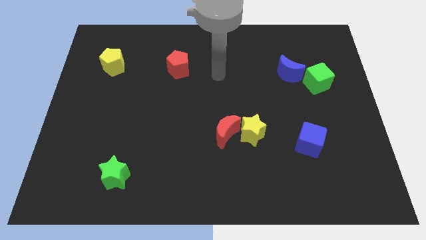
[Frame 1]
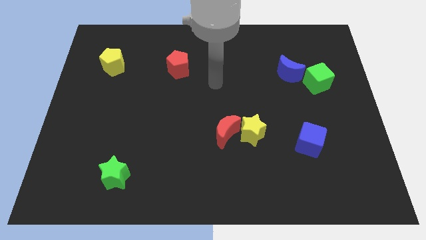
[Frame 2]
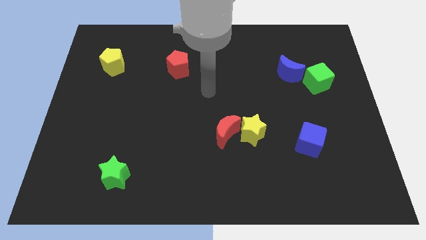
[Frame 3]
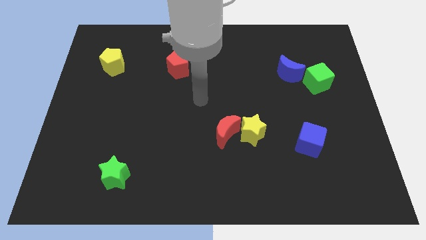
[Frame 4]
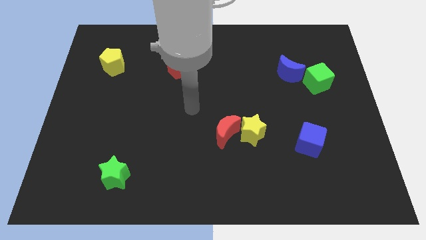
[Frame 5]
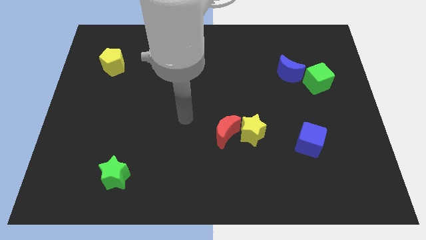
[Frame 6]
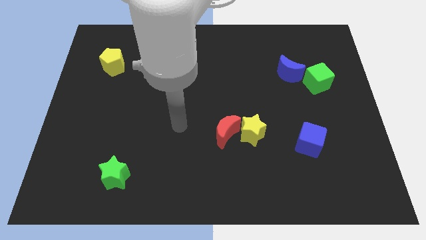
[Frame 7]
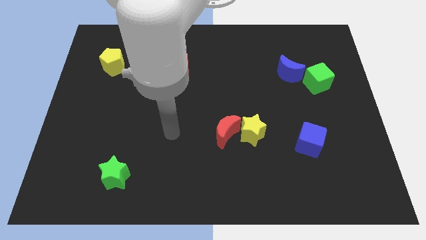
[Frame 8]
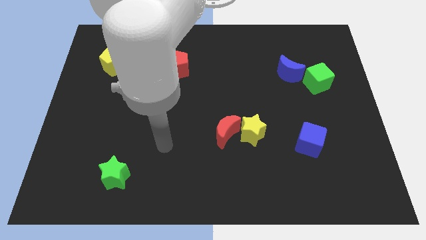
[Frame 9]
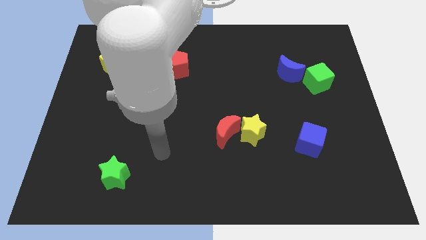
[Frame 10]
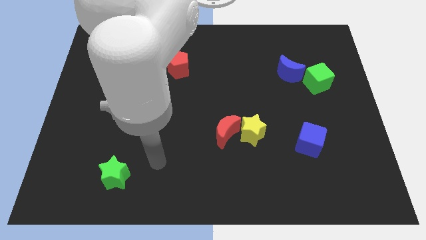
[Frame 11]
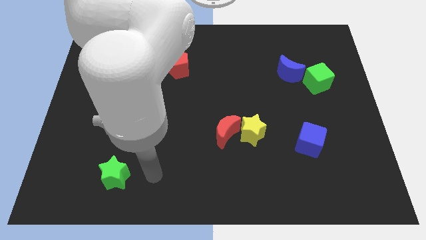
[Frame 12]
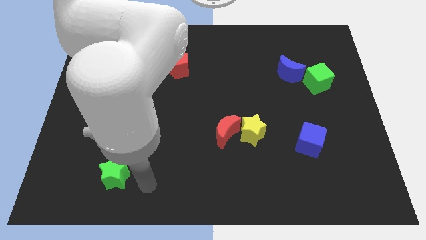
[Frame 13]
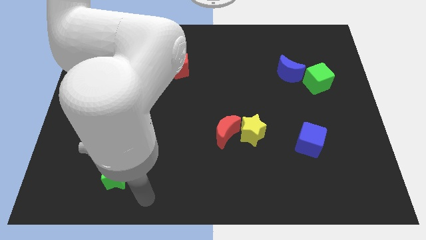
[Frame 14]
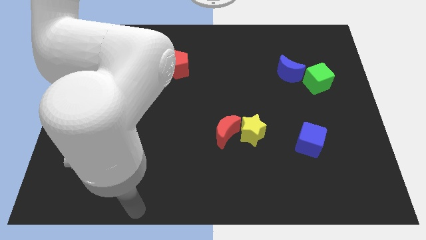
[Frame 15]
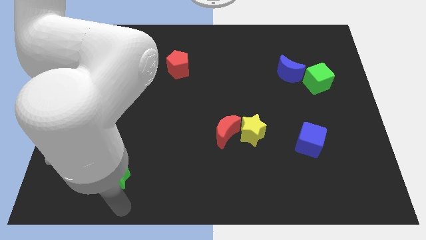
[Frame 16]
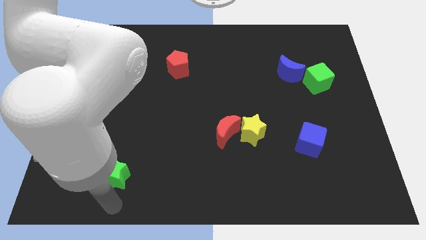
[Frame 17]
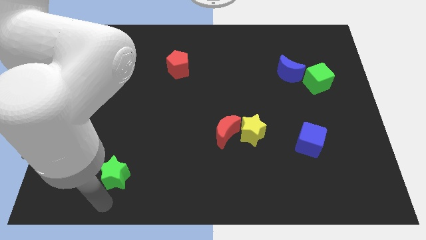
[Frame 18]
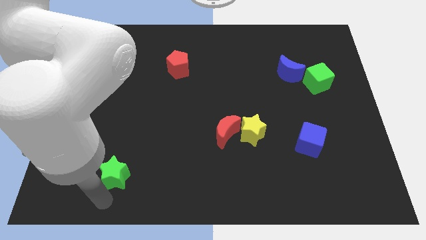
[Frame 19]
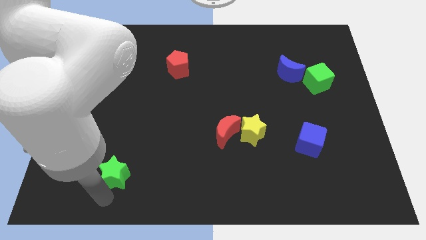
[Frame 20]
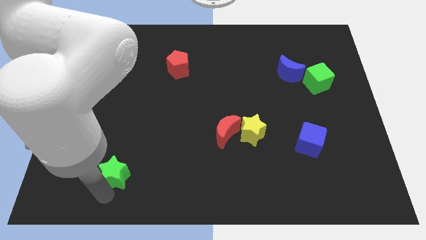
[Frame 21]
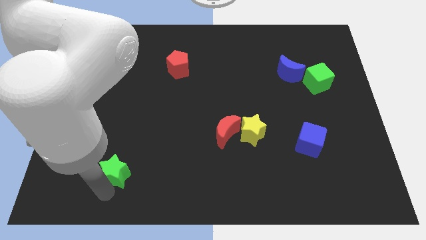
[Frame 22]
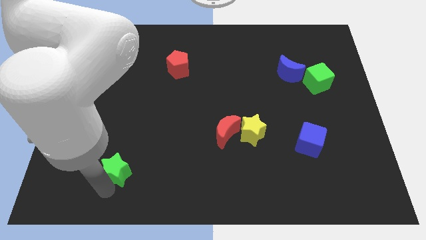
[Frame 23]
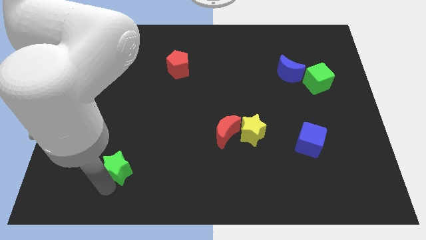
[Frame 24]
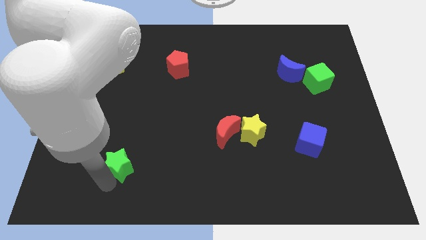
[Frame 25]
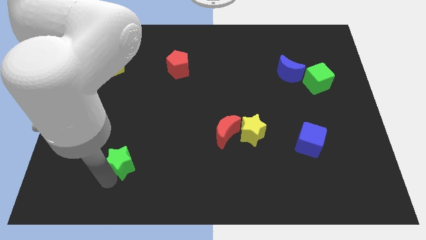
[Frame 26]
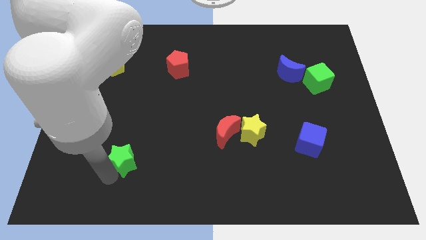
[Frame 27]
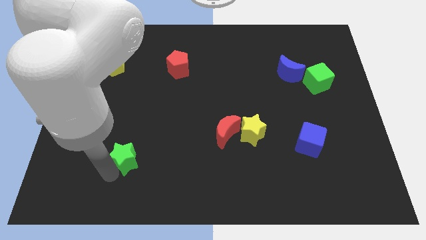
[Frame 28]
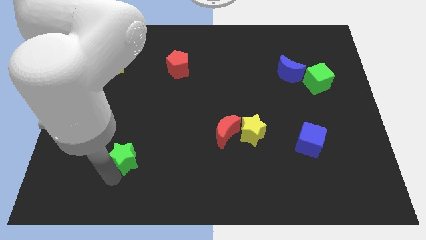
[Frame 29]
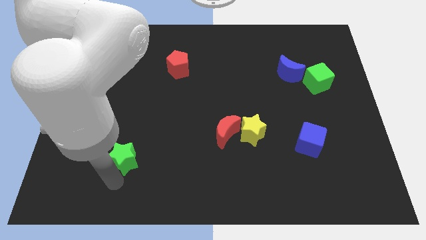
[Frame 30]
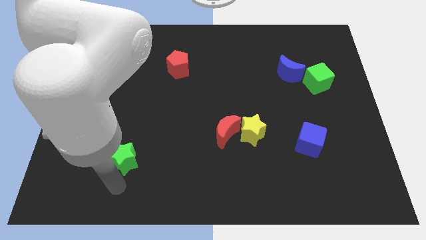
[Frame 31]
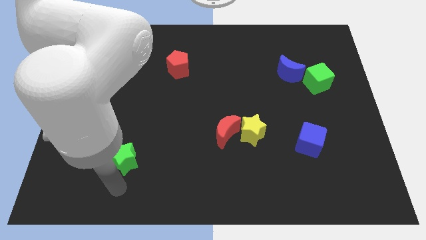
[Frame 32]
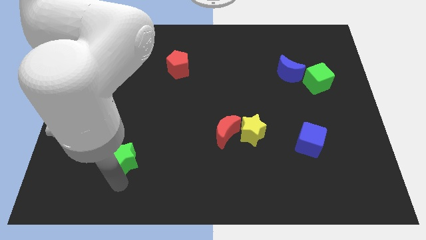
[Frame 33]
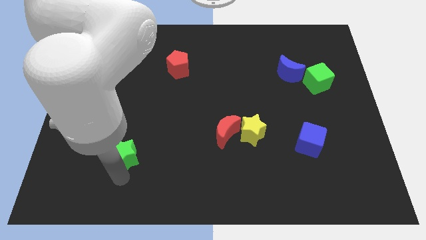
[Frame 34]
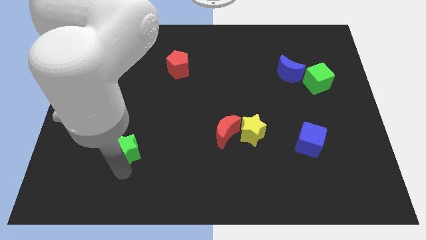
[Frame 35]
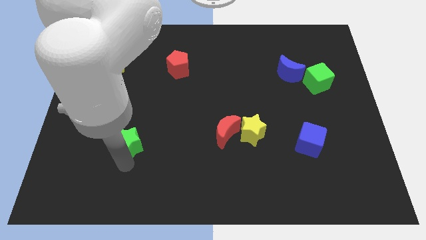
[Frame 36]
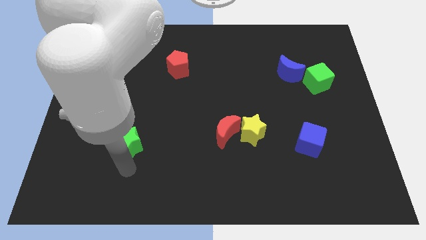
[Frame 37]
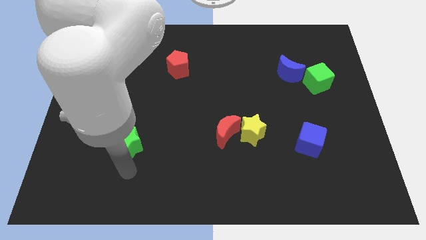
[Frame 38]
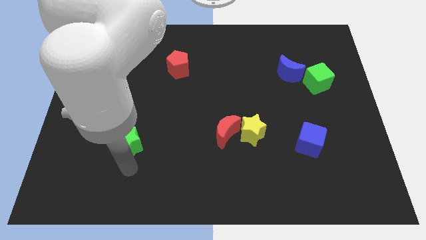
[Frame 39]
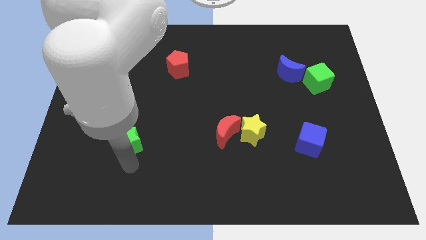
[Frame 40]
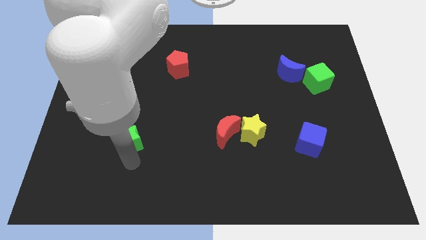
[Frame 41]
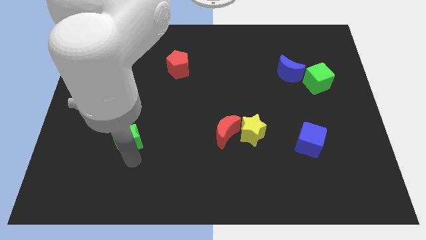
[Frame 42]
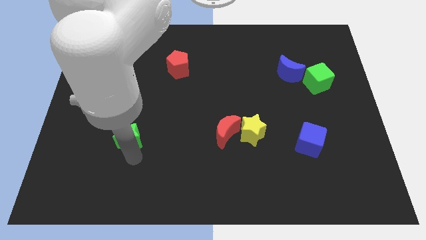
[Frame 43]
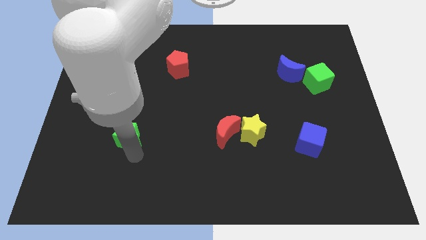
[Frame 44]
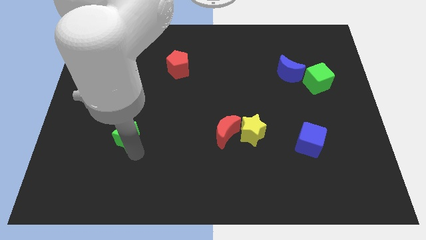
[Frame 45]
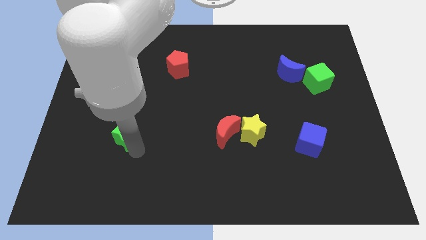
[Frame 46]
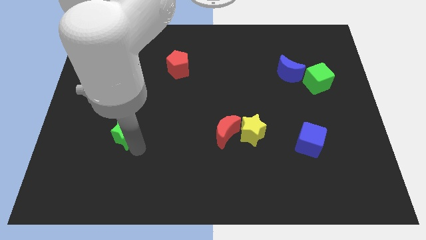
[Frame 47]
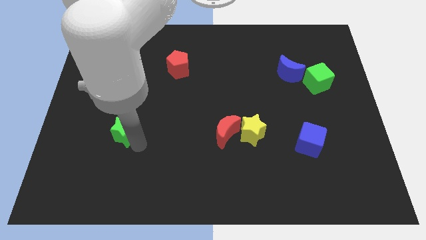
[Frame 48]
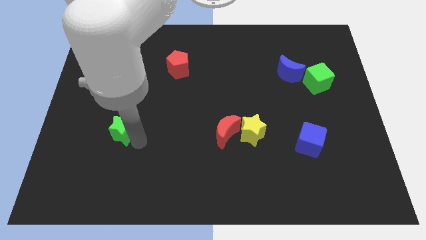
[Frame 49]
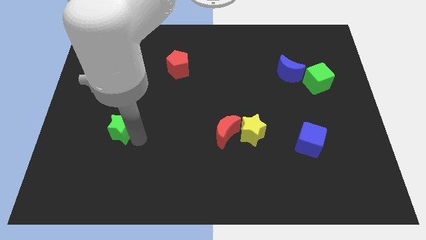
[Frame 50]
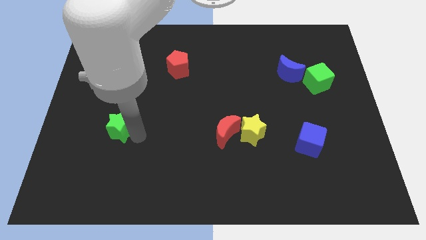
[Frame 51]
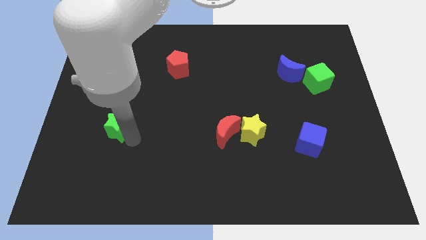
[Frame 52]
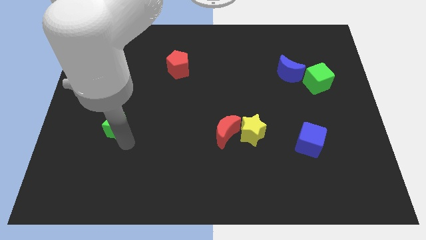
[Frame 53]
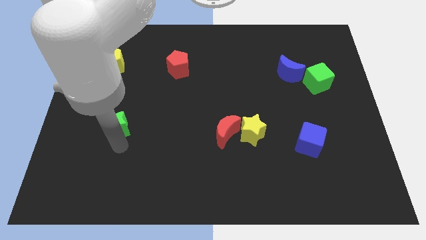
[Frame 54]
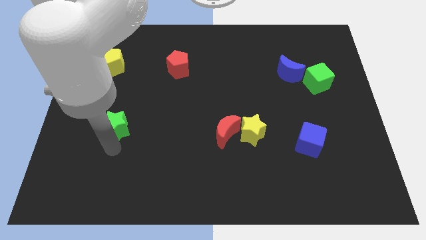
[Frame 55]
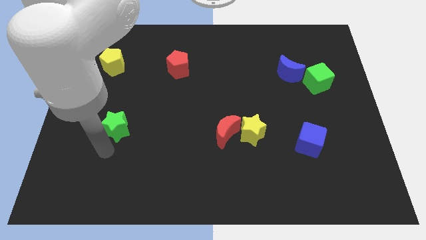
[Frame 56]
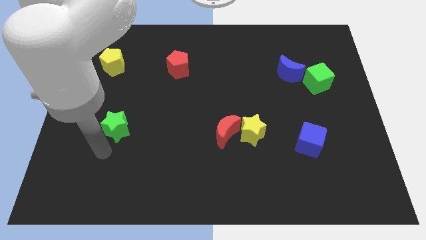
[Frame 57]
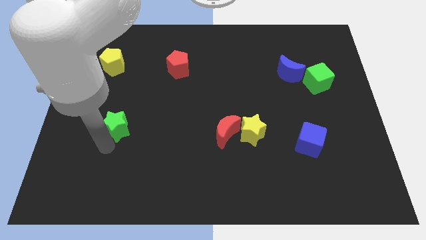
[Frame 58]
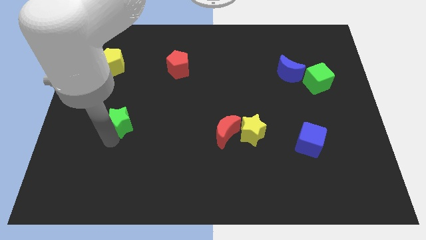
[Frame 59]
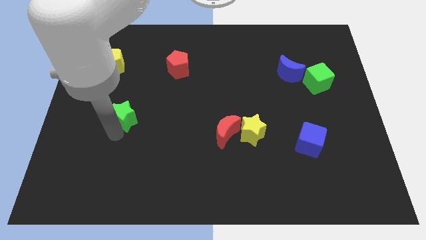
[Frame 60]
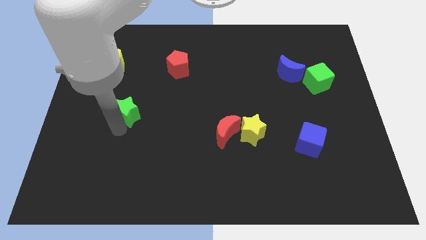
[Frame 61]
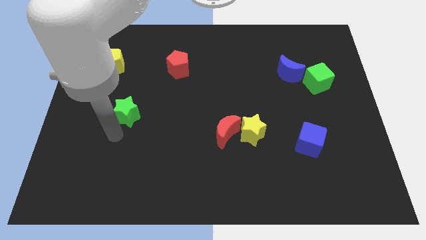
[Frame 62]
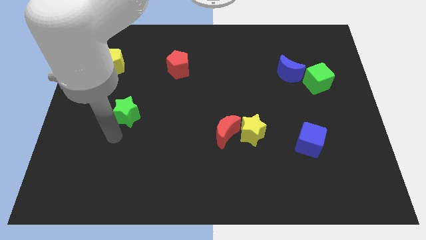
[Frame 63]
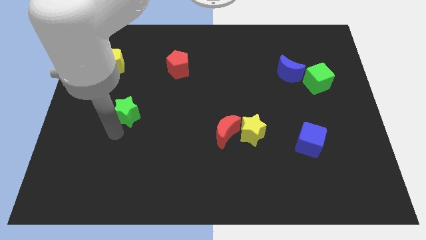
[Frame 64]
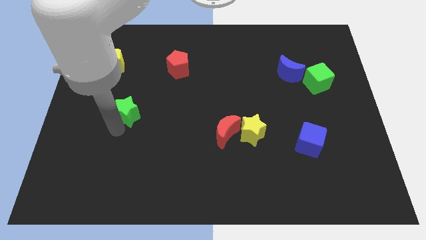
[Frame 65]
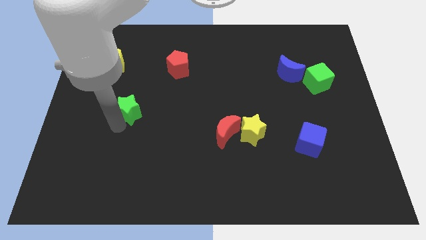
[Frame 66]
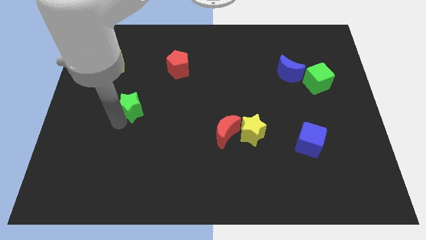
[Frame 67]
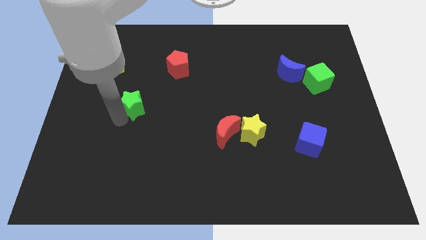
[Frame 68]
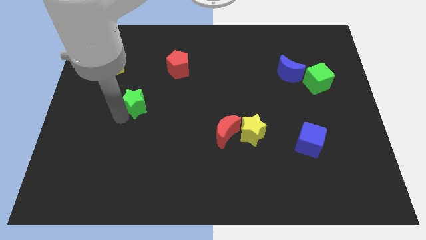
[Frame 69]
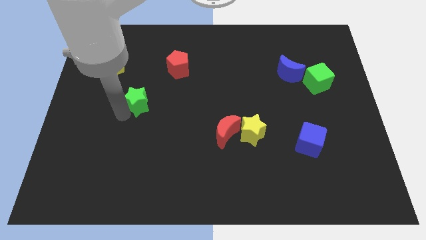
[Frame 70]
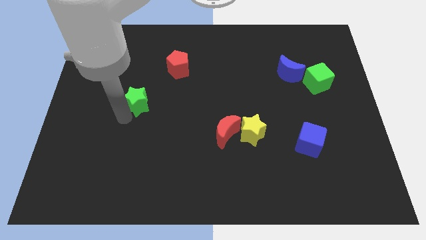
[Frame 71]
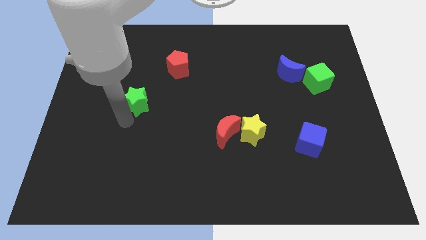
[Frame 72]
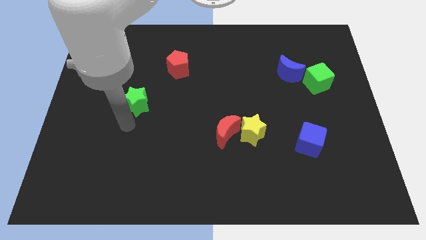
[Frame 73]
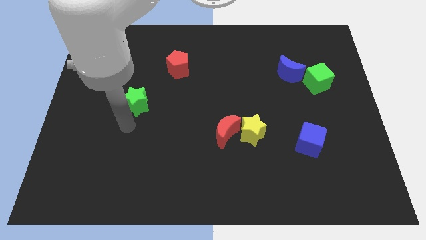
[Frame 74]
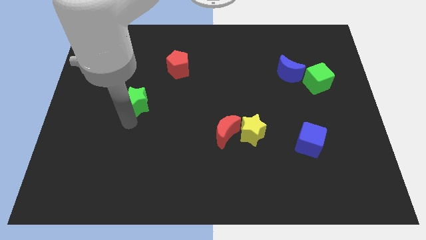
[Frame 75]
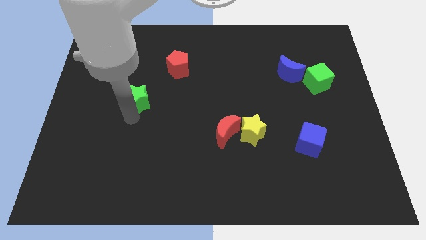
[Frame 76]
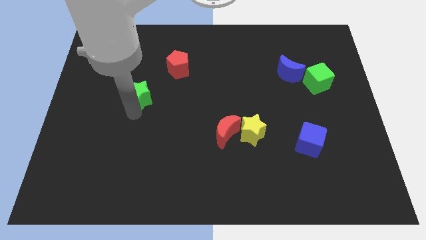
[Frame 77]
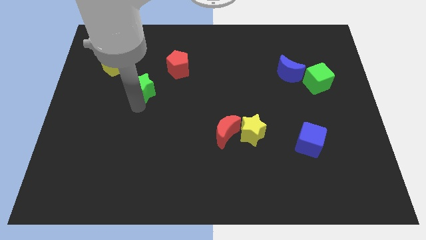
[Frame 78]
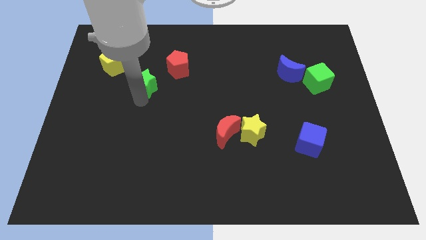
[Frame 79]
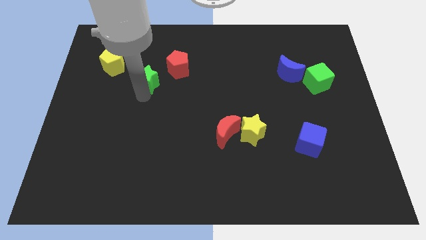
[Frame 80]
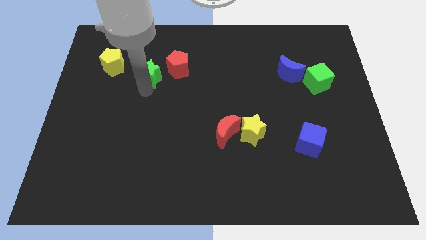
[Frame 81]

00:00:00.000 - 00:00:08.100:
push the green star right of the yellow pentagon
